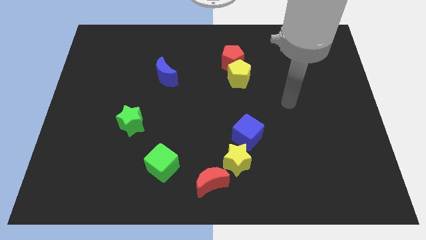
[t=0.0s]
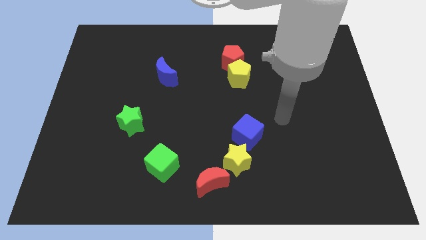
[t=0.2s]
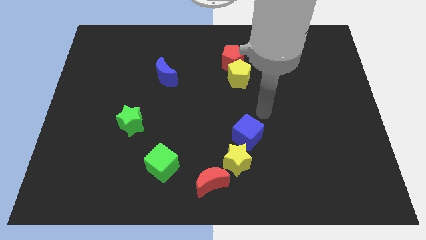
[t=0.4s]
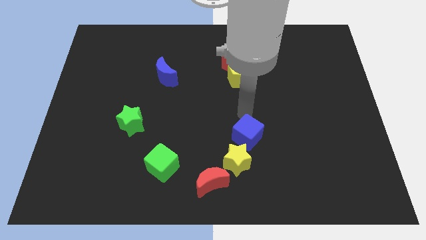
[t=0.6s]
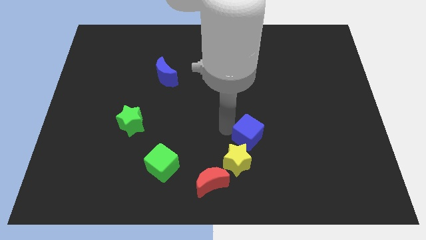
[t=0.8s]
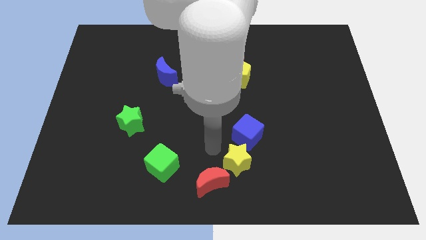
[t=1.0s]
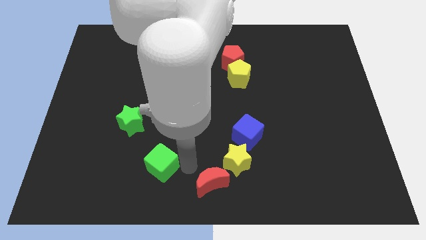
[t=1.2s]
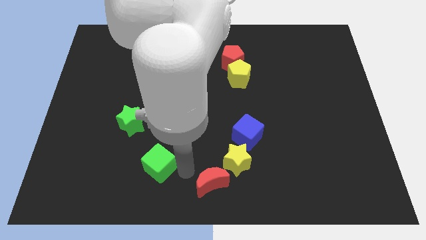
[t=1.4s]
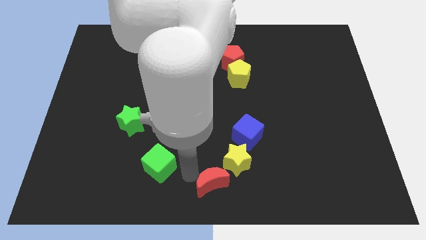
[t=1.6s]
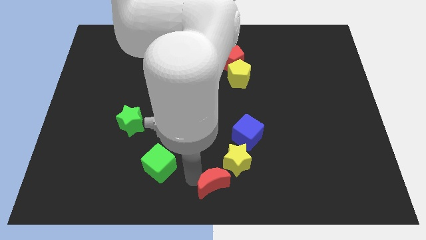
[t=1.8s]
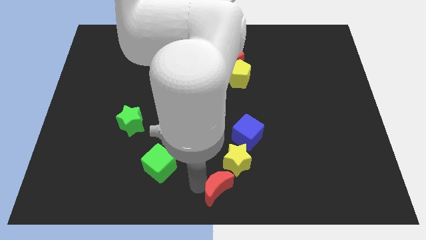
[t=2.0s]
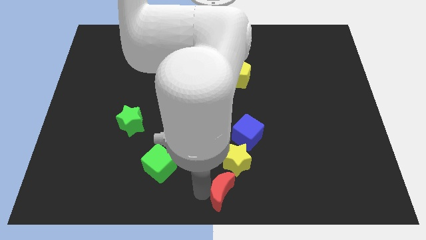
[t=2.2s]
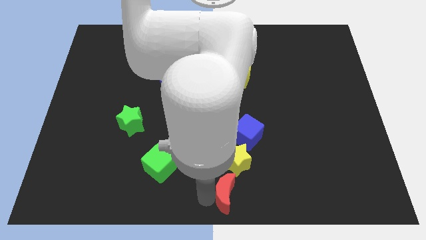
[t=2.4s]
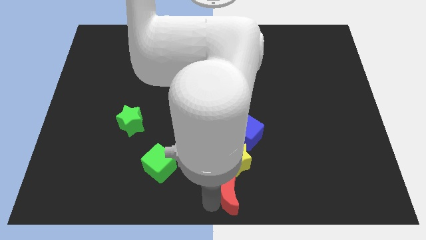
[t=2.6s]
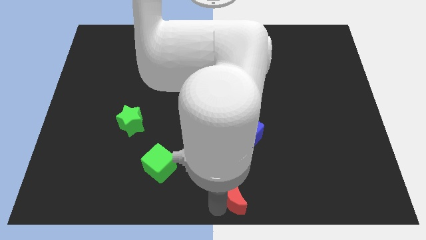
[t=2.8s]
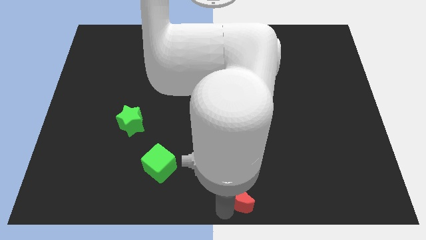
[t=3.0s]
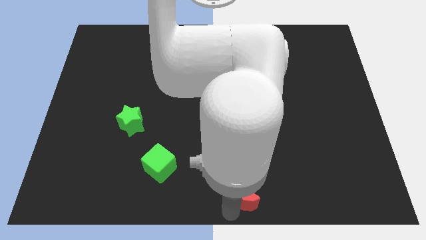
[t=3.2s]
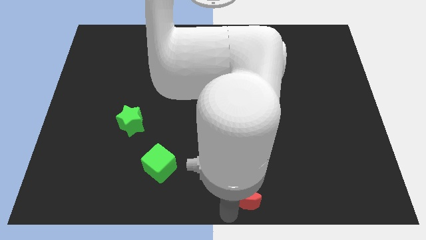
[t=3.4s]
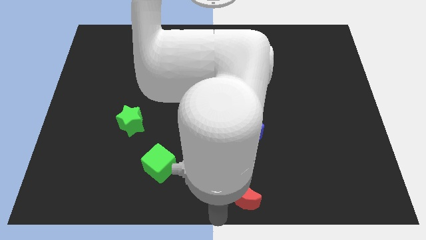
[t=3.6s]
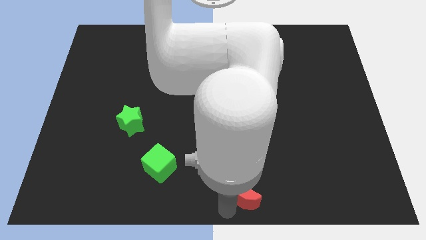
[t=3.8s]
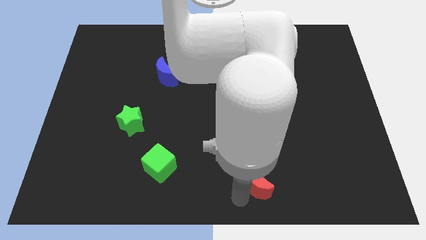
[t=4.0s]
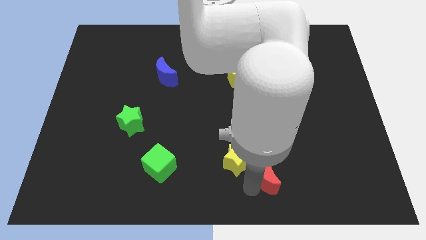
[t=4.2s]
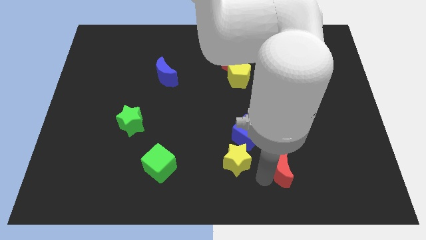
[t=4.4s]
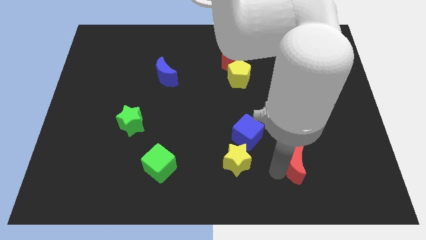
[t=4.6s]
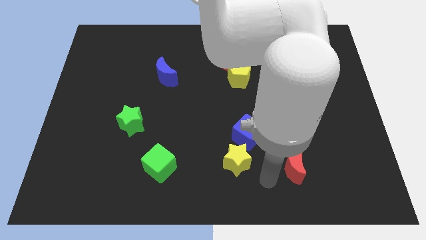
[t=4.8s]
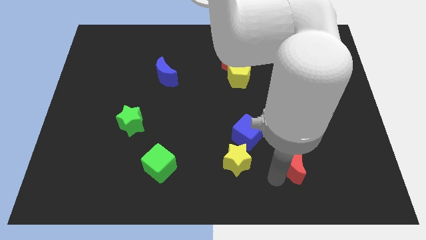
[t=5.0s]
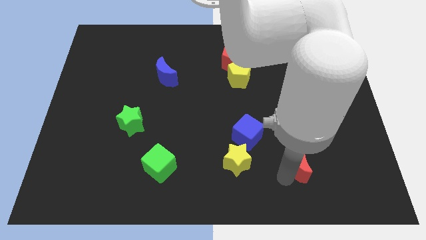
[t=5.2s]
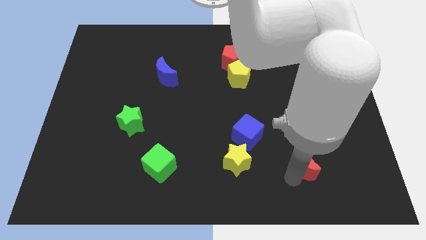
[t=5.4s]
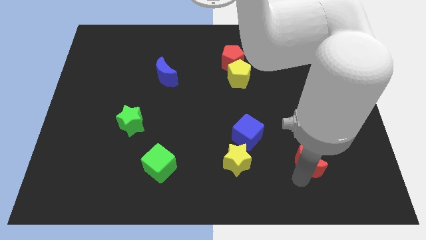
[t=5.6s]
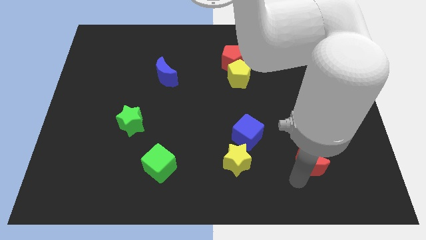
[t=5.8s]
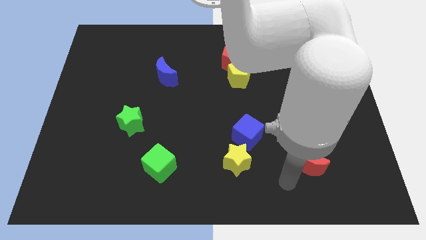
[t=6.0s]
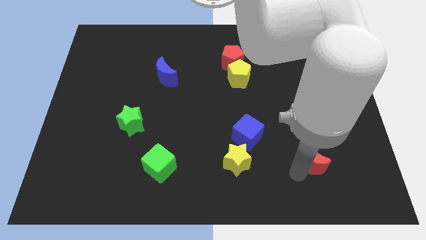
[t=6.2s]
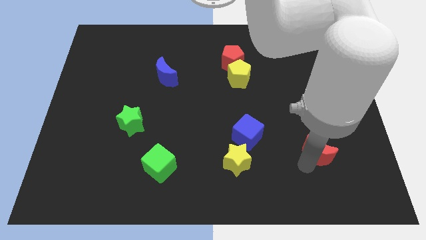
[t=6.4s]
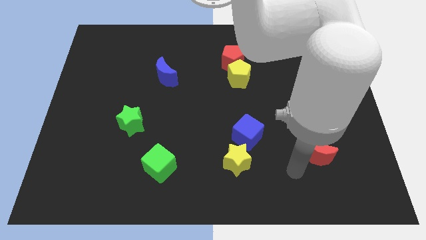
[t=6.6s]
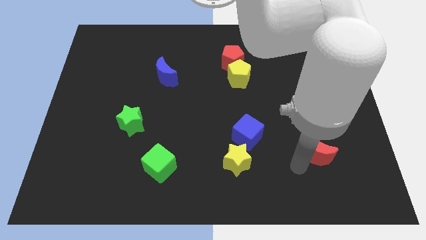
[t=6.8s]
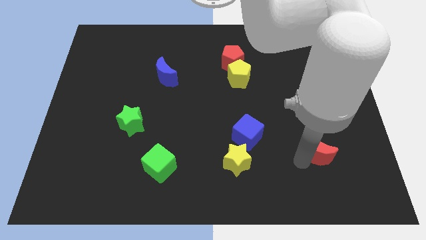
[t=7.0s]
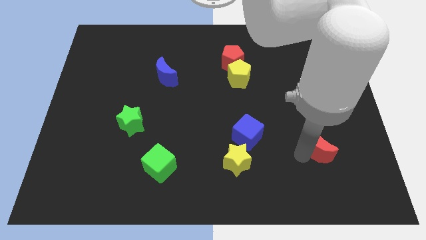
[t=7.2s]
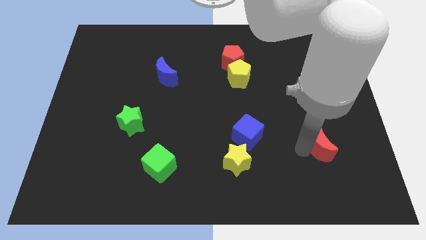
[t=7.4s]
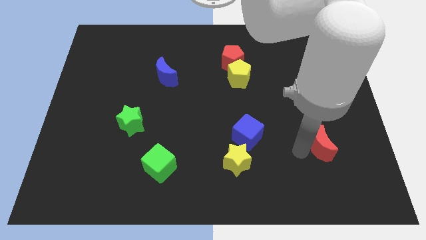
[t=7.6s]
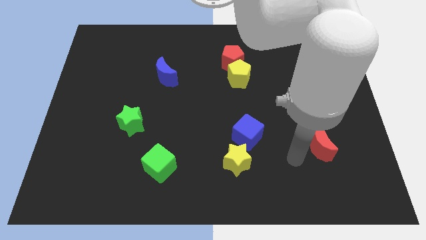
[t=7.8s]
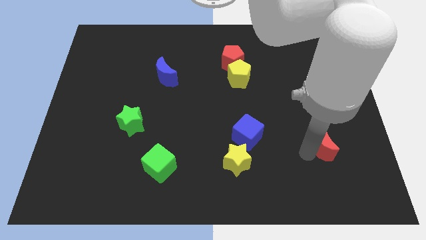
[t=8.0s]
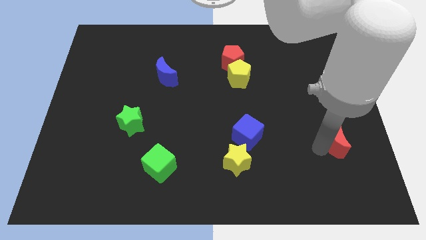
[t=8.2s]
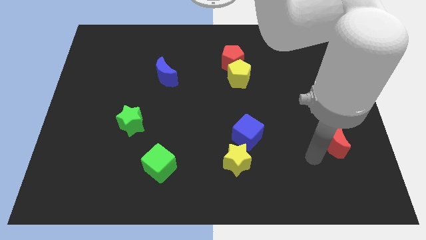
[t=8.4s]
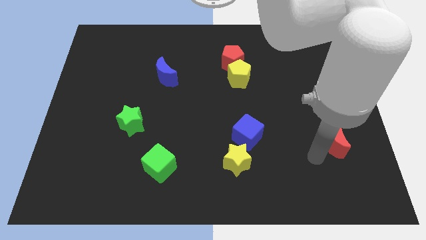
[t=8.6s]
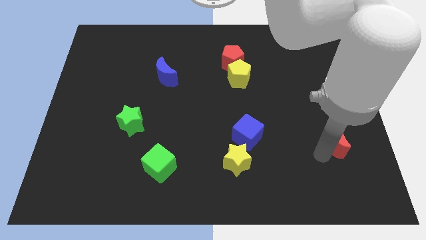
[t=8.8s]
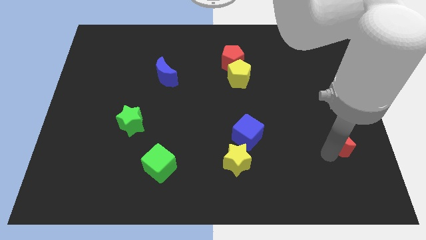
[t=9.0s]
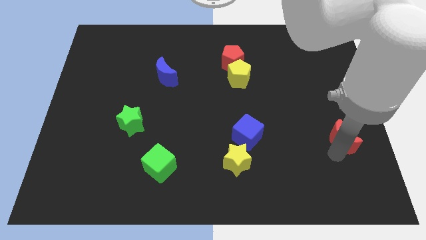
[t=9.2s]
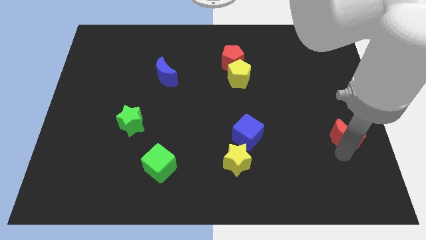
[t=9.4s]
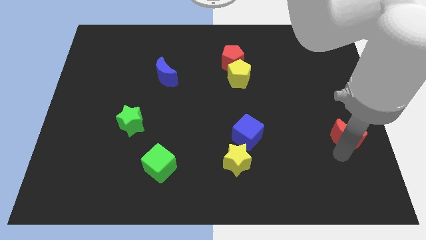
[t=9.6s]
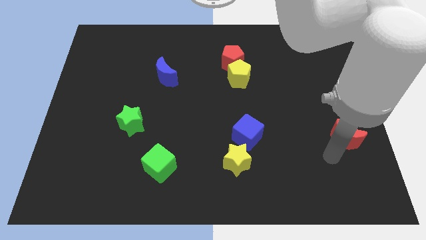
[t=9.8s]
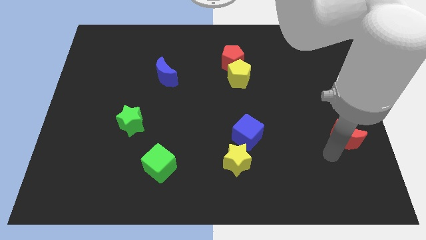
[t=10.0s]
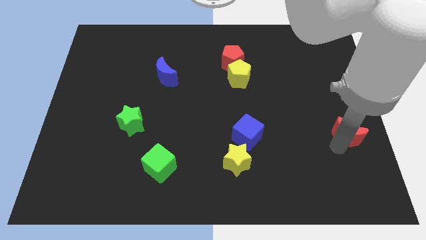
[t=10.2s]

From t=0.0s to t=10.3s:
slide the red moon to the right side of the board
